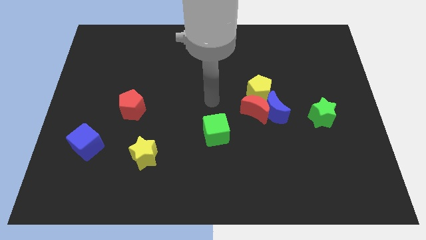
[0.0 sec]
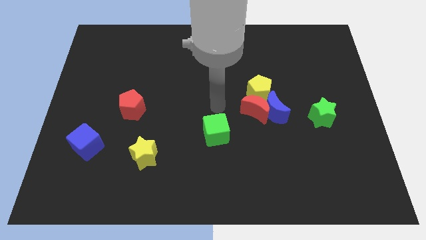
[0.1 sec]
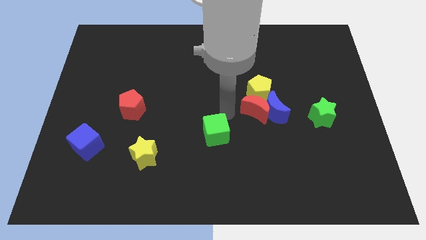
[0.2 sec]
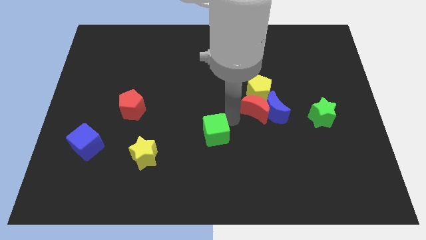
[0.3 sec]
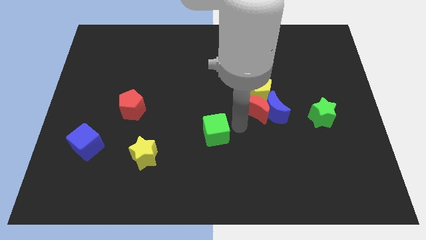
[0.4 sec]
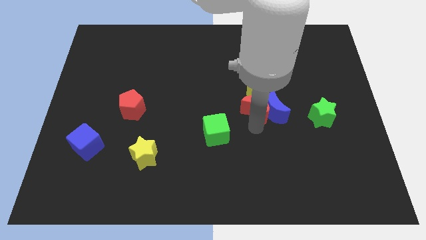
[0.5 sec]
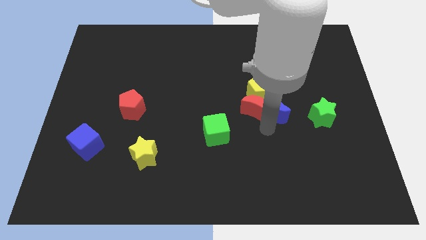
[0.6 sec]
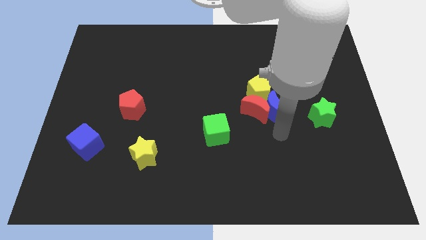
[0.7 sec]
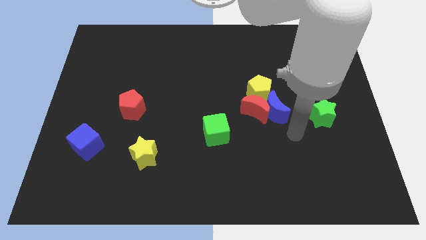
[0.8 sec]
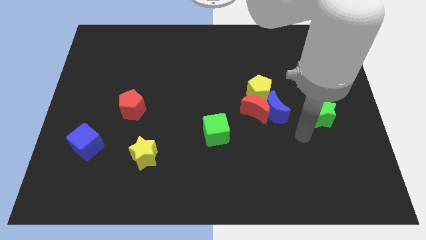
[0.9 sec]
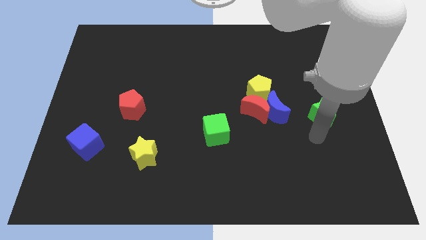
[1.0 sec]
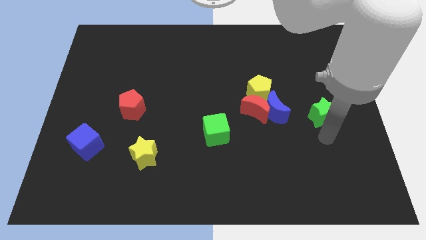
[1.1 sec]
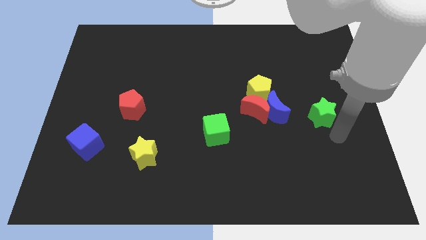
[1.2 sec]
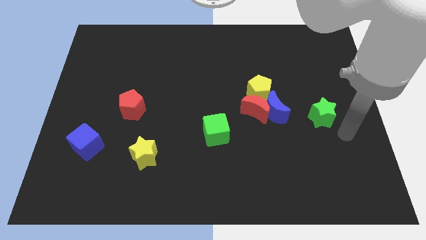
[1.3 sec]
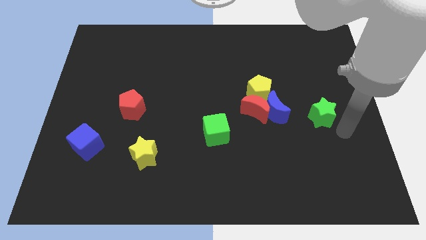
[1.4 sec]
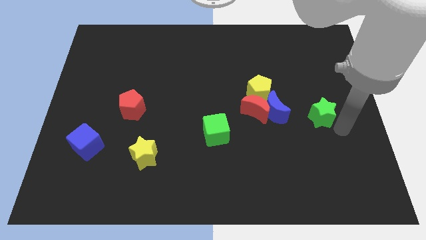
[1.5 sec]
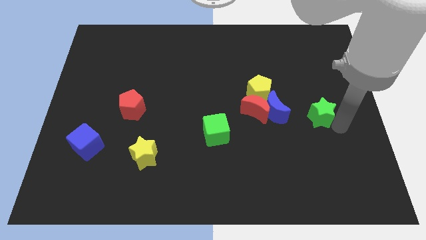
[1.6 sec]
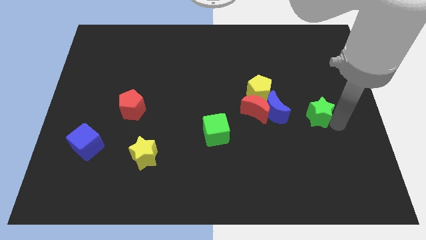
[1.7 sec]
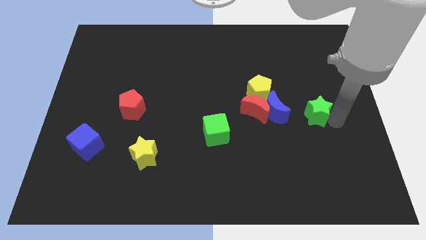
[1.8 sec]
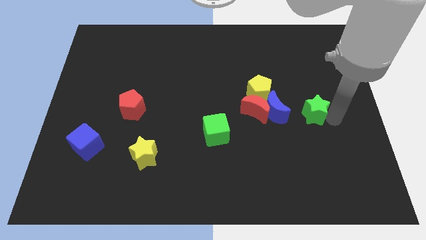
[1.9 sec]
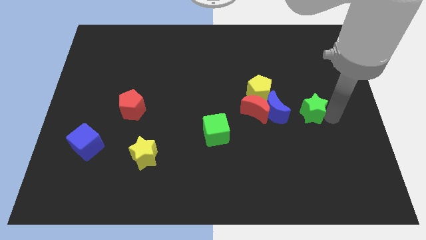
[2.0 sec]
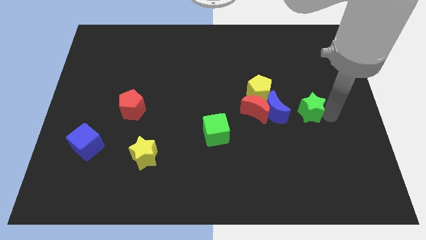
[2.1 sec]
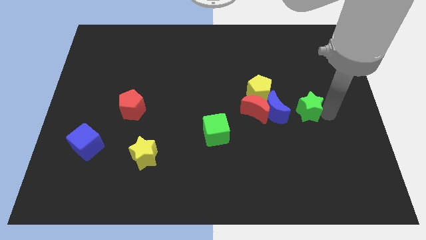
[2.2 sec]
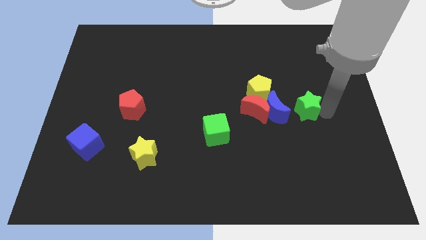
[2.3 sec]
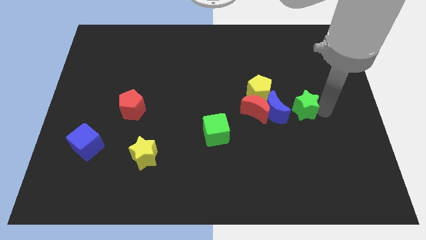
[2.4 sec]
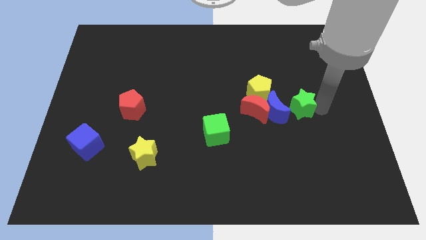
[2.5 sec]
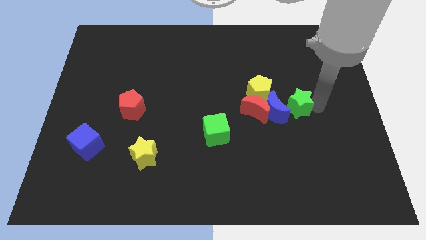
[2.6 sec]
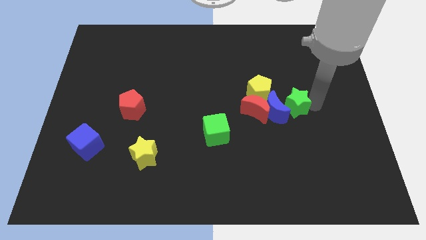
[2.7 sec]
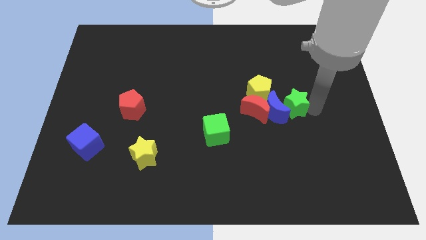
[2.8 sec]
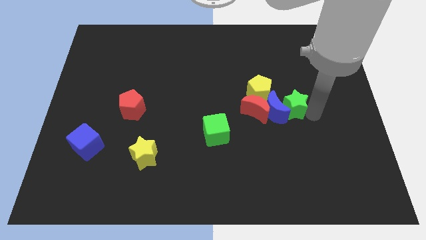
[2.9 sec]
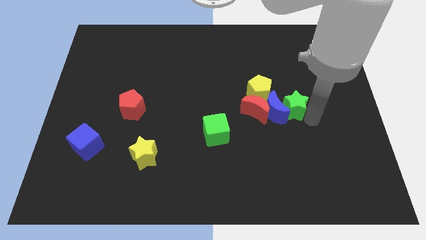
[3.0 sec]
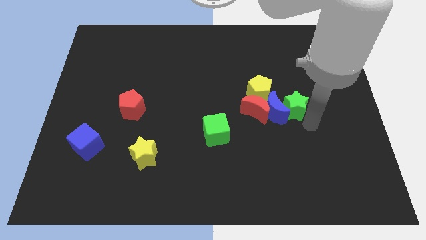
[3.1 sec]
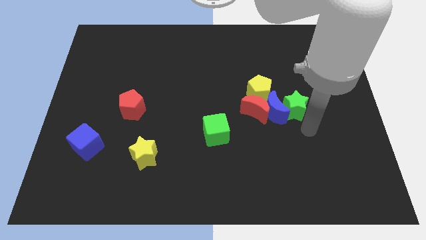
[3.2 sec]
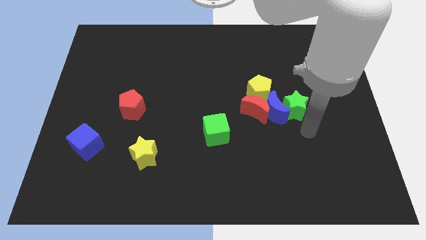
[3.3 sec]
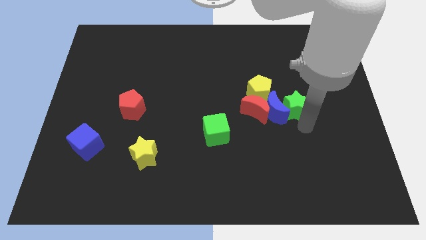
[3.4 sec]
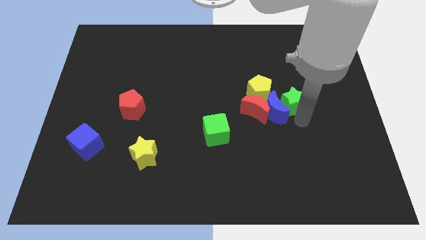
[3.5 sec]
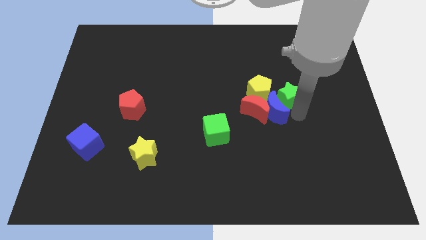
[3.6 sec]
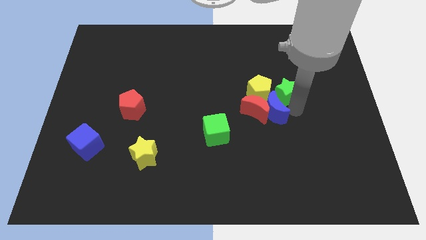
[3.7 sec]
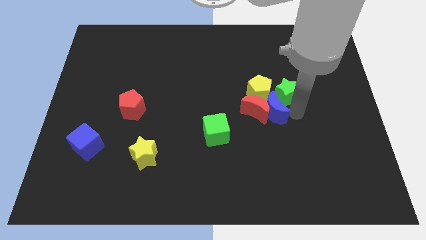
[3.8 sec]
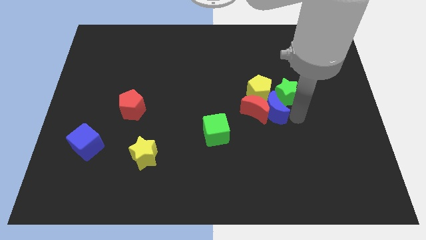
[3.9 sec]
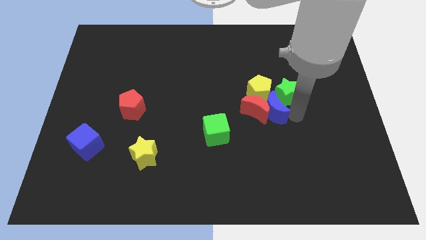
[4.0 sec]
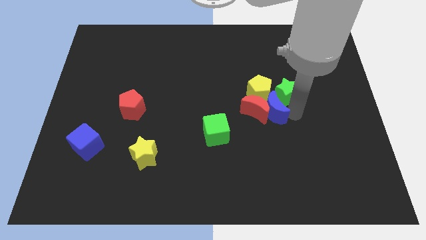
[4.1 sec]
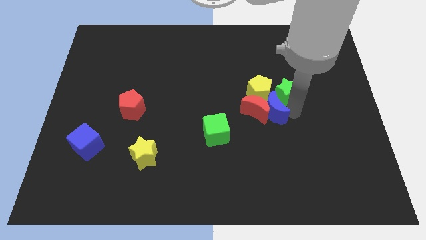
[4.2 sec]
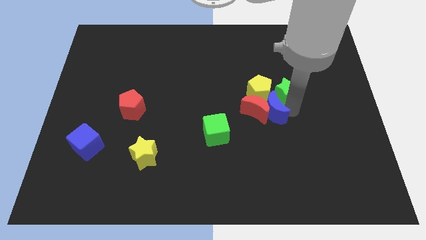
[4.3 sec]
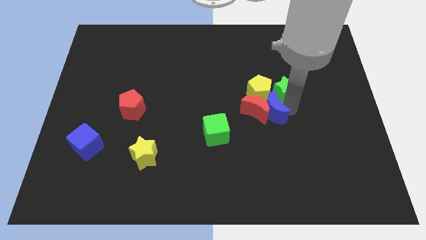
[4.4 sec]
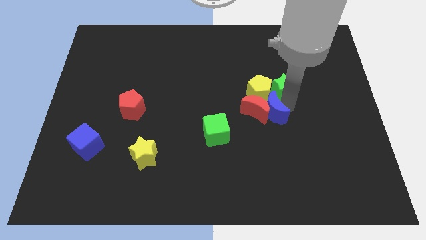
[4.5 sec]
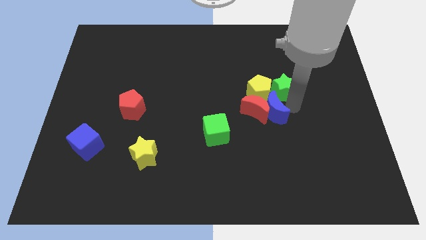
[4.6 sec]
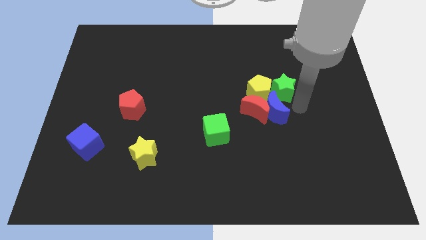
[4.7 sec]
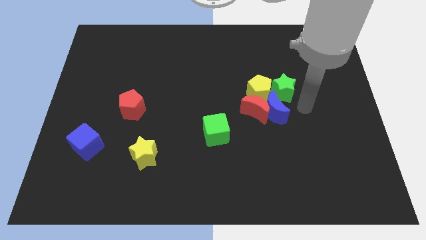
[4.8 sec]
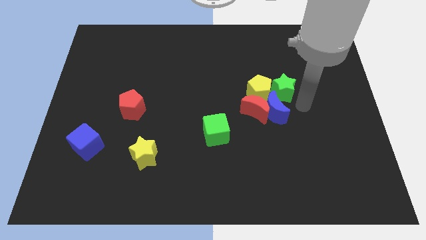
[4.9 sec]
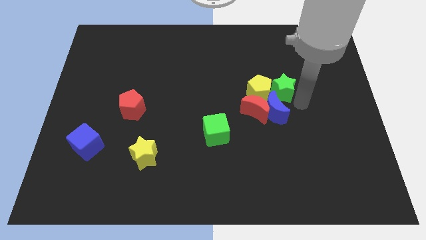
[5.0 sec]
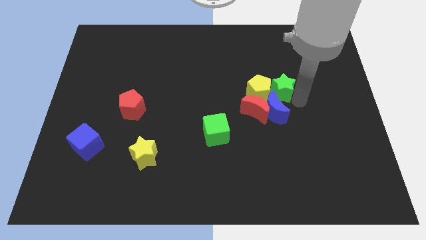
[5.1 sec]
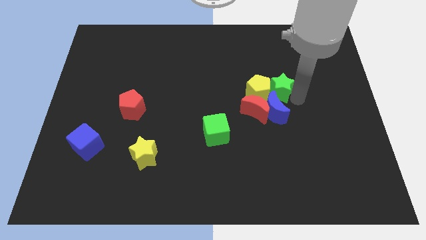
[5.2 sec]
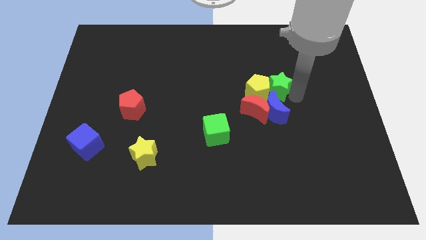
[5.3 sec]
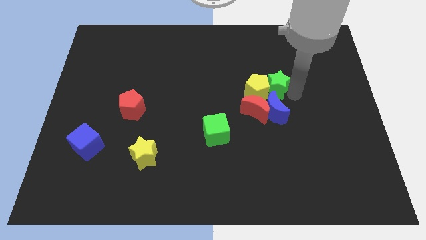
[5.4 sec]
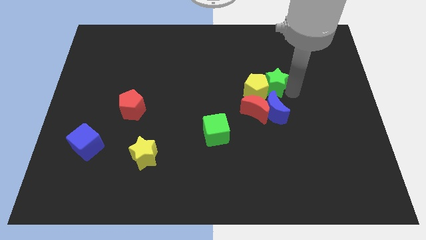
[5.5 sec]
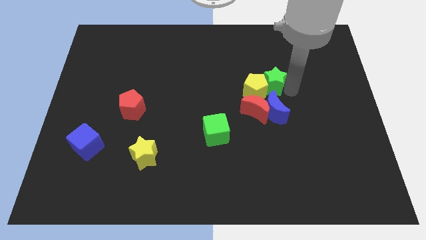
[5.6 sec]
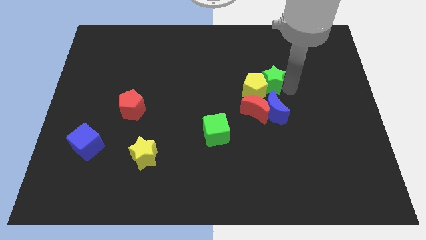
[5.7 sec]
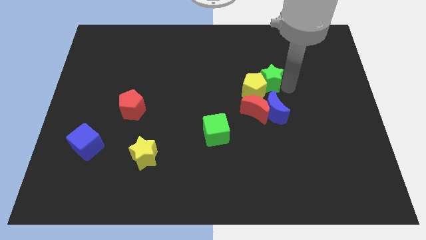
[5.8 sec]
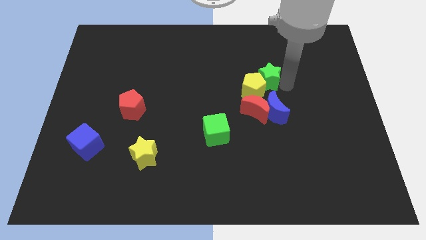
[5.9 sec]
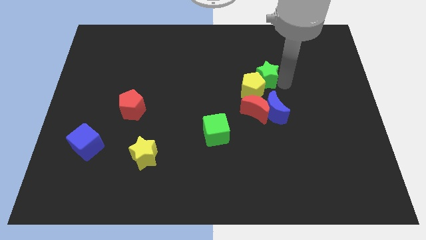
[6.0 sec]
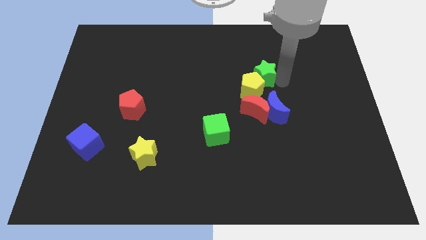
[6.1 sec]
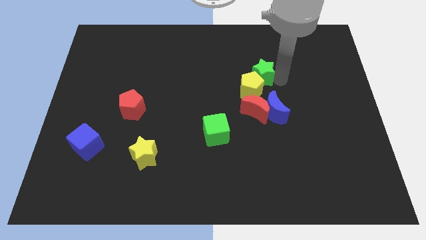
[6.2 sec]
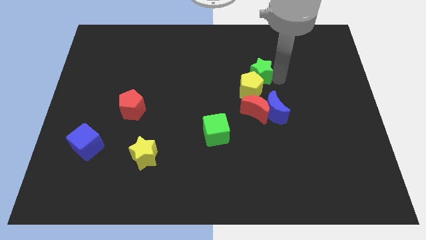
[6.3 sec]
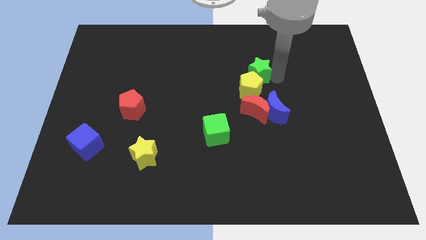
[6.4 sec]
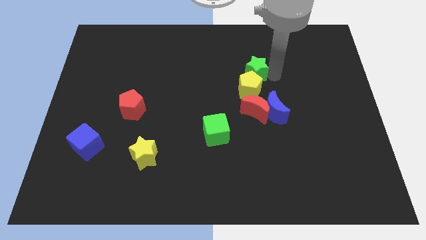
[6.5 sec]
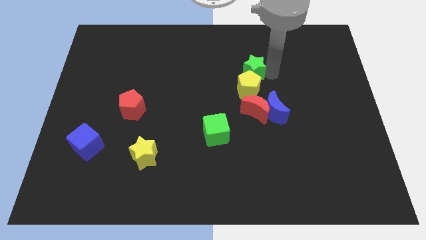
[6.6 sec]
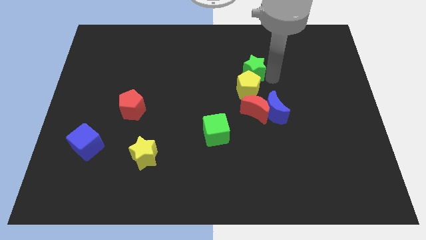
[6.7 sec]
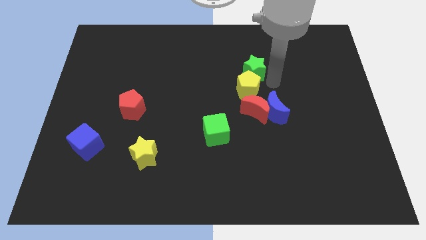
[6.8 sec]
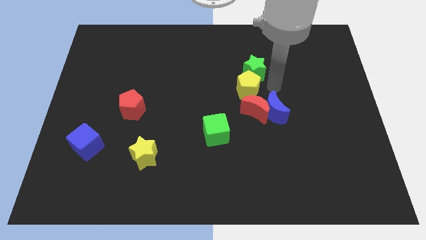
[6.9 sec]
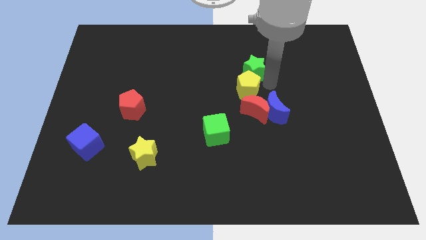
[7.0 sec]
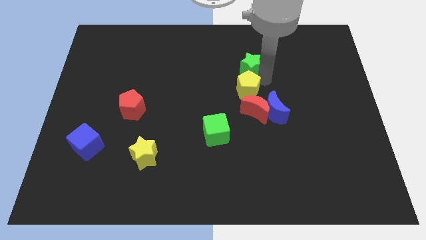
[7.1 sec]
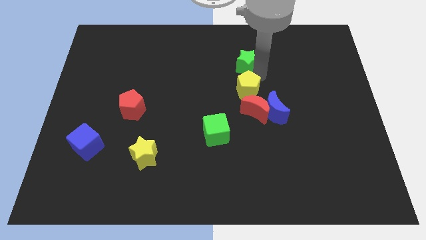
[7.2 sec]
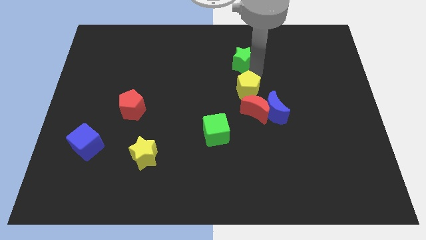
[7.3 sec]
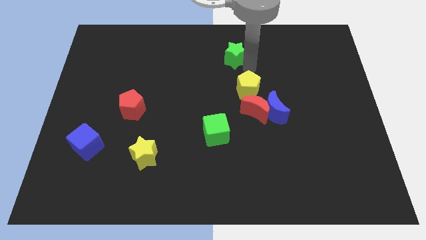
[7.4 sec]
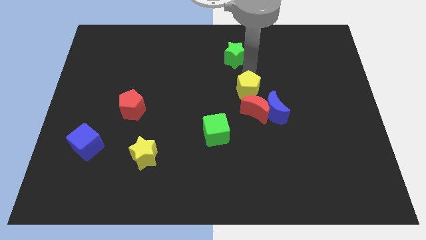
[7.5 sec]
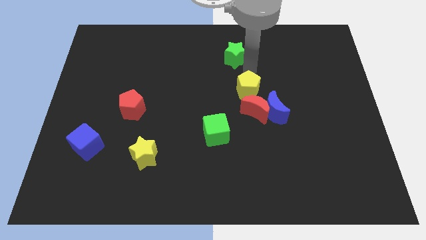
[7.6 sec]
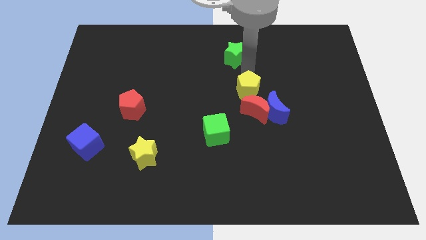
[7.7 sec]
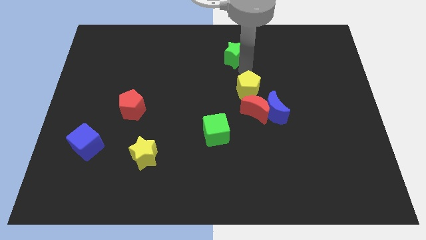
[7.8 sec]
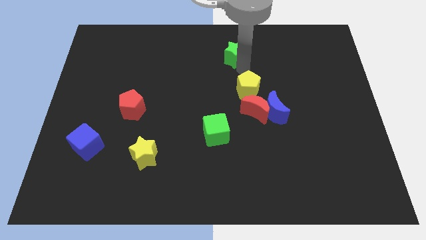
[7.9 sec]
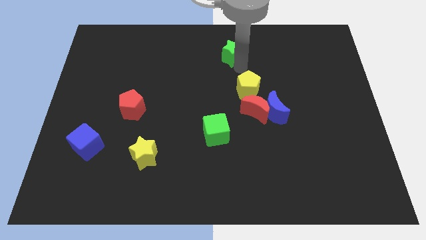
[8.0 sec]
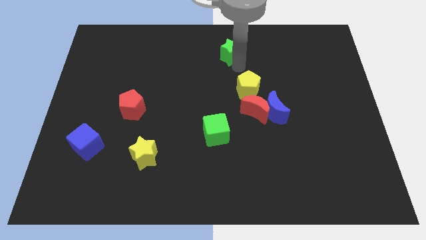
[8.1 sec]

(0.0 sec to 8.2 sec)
push the green star to the top
